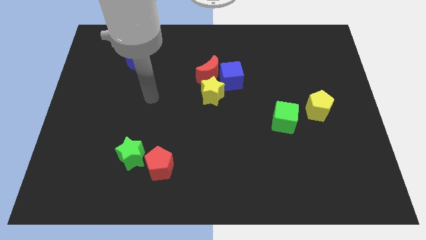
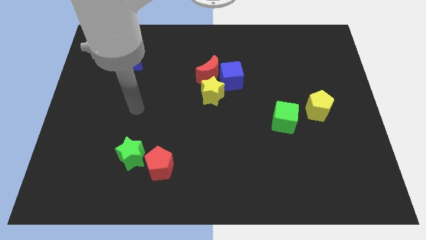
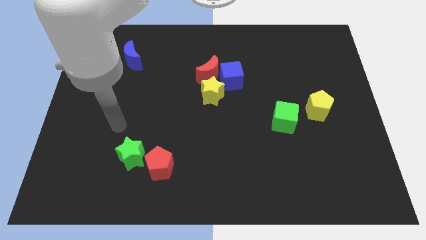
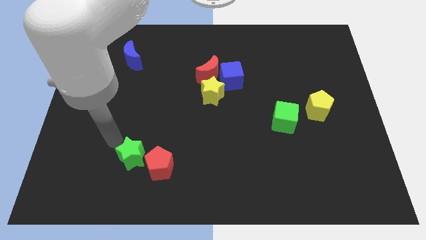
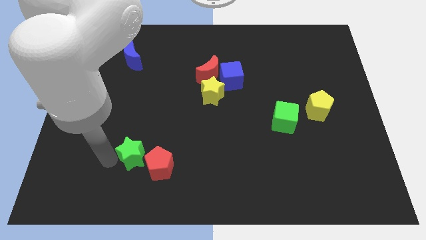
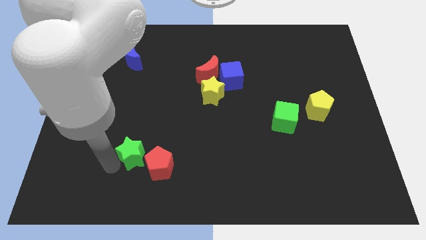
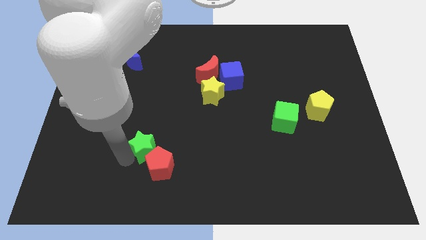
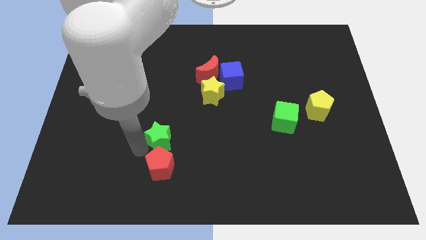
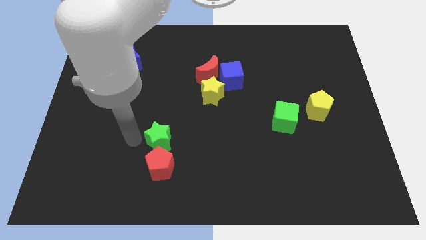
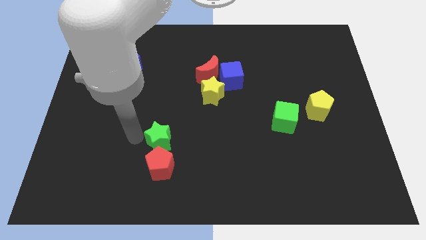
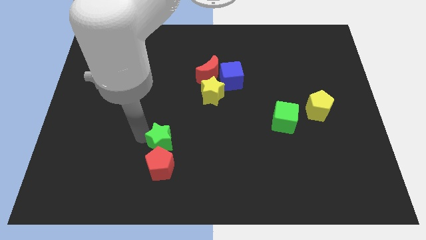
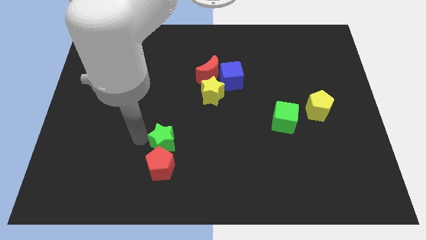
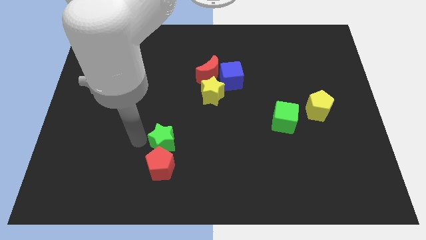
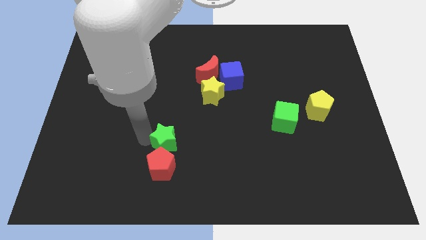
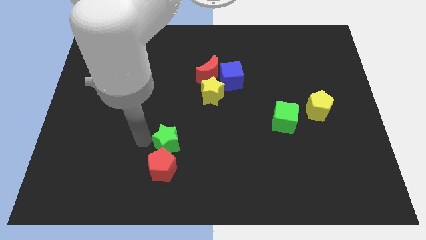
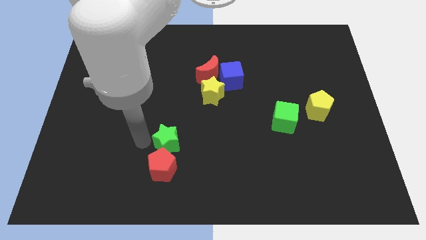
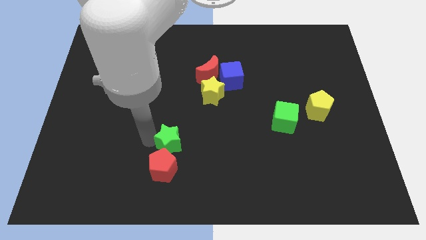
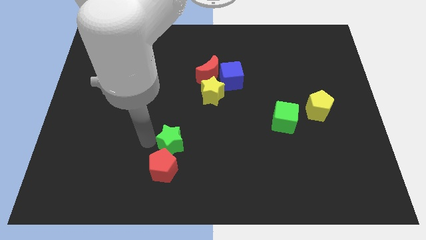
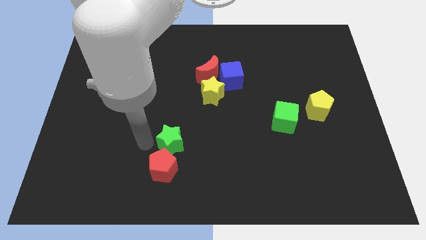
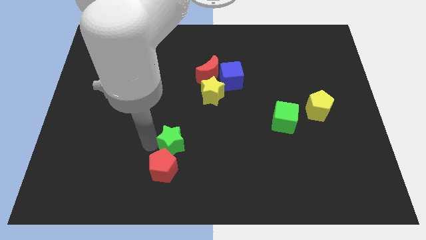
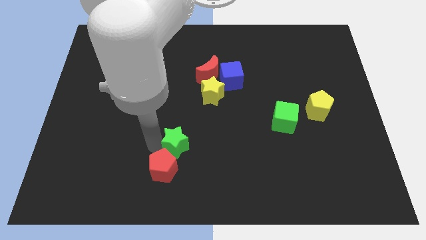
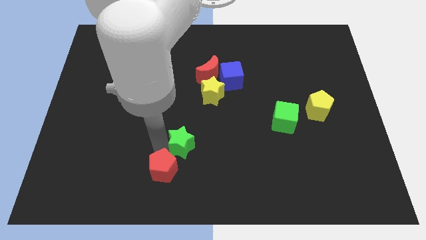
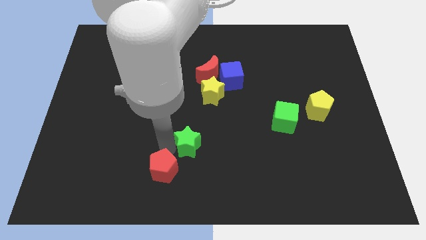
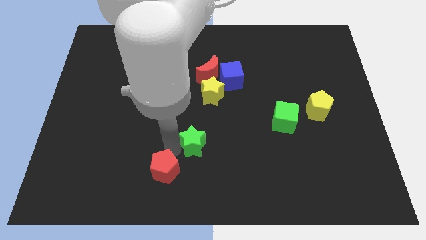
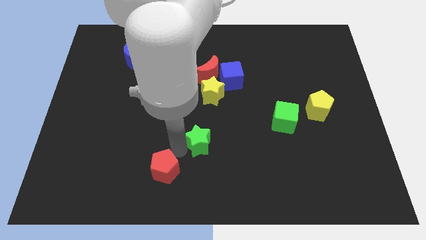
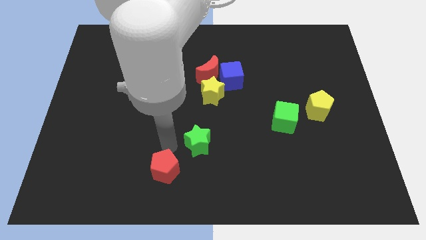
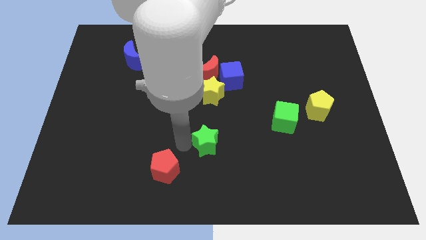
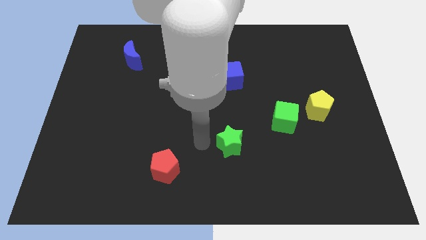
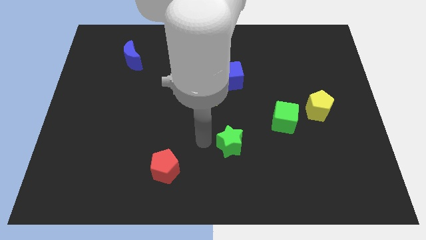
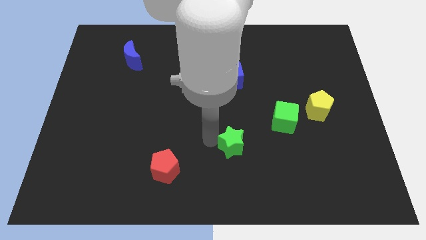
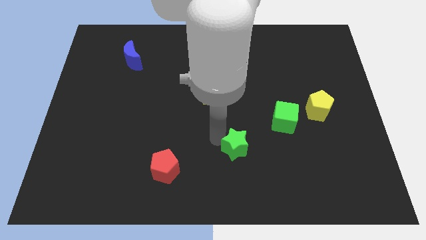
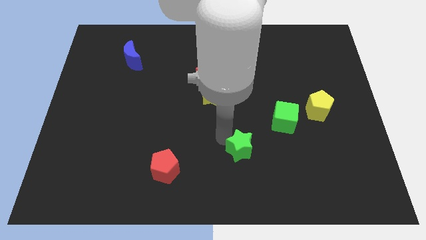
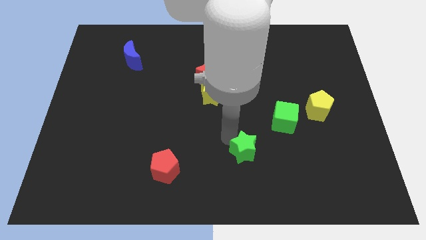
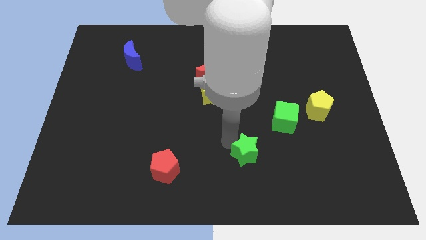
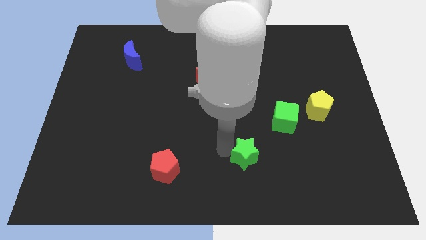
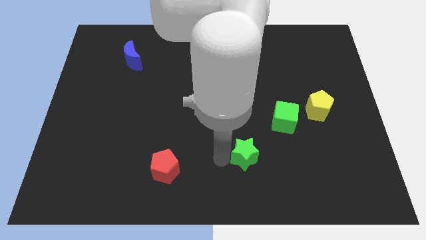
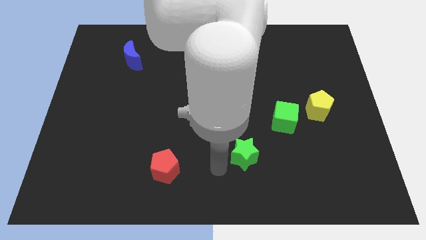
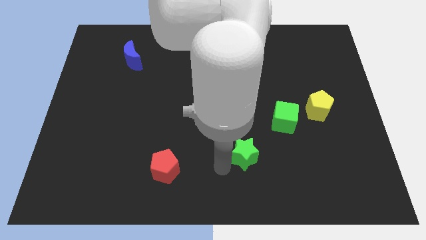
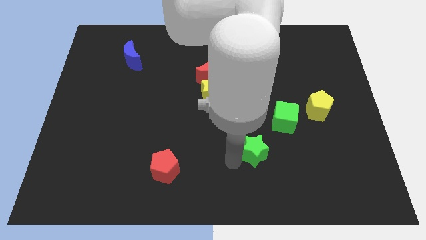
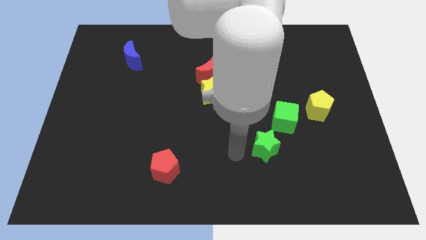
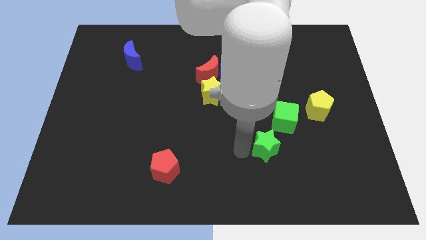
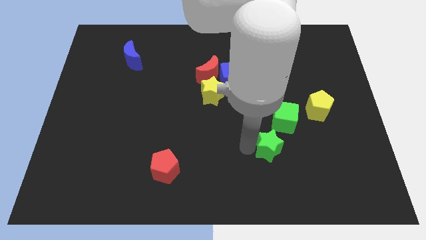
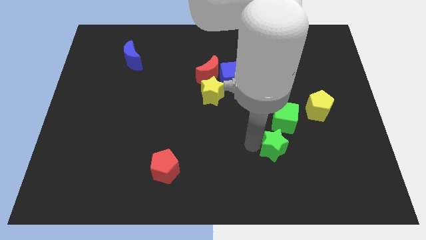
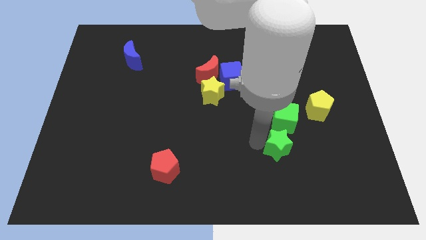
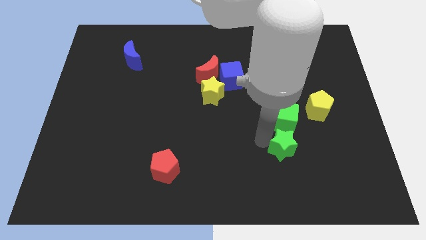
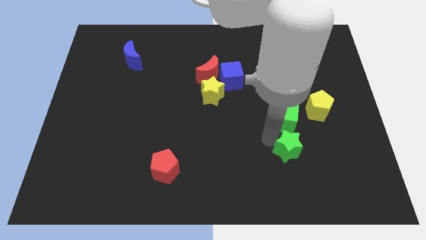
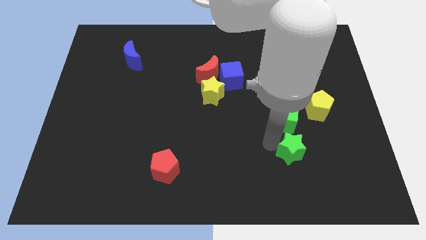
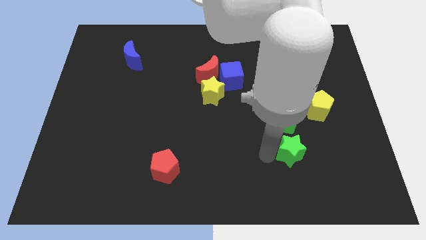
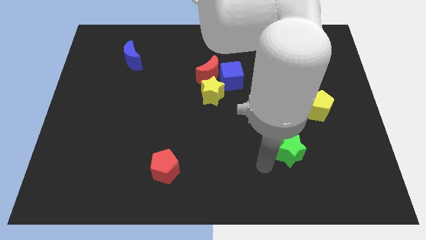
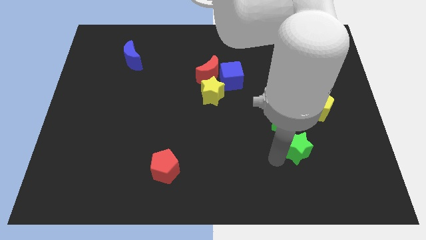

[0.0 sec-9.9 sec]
put the green star diagonally down and to the right of the green cube

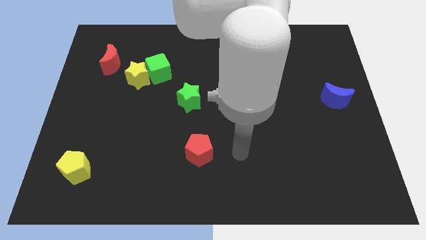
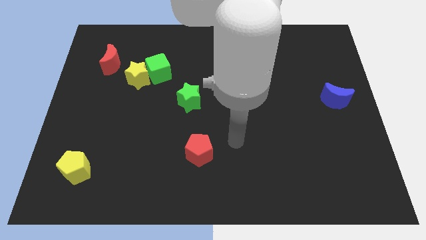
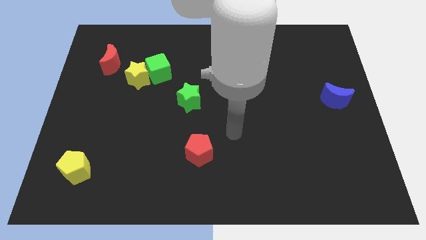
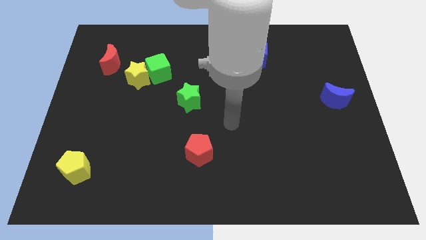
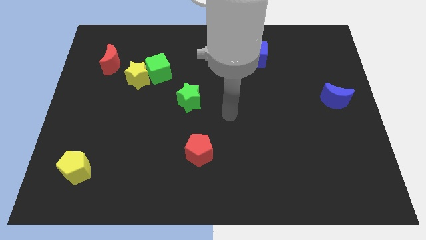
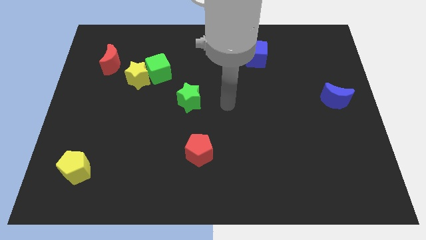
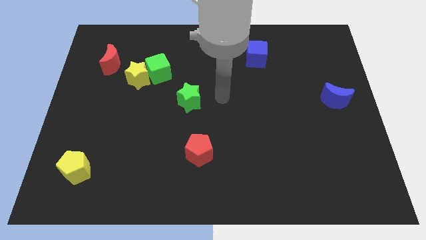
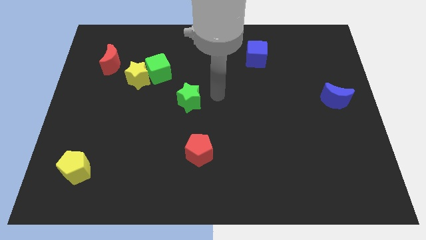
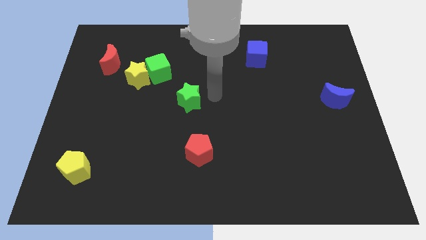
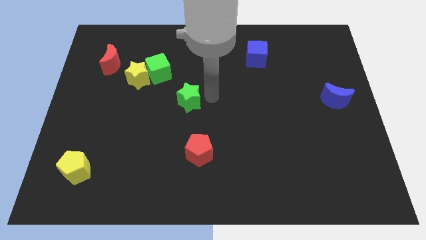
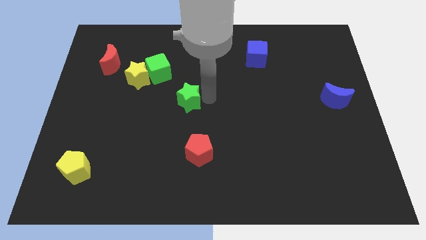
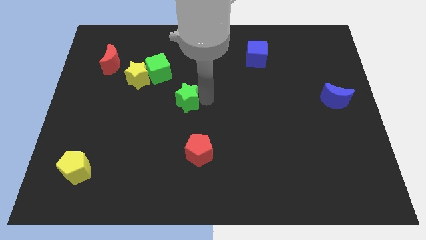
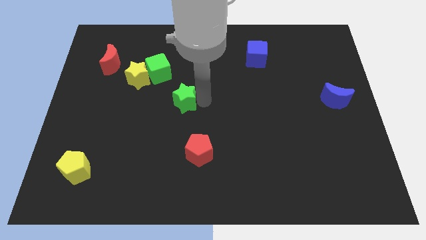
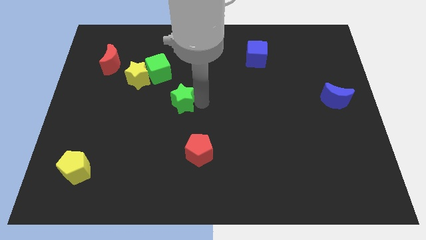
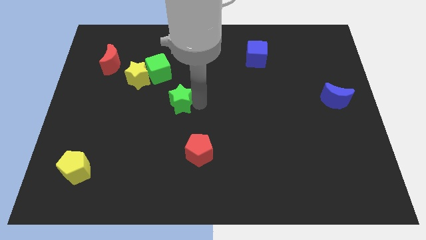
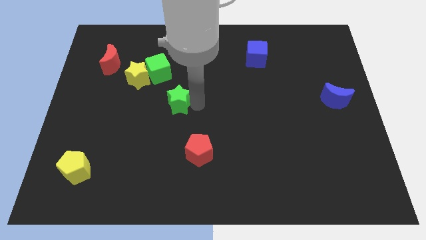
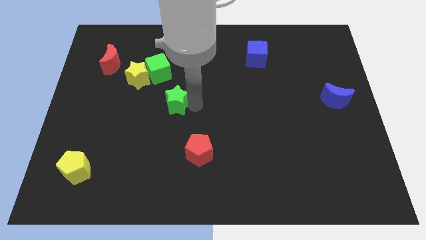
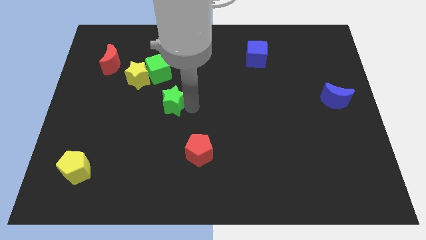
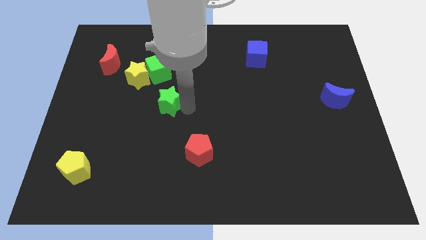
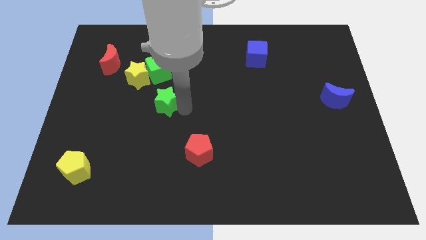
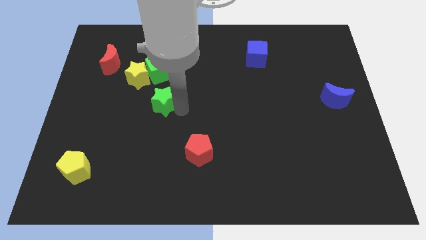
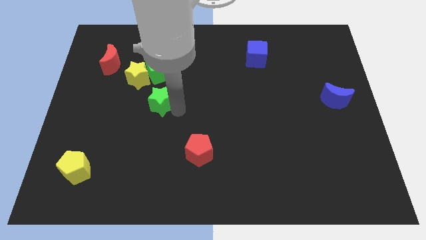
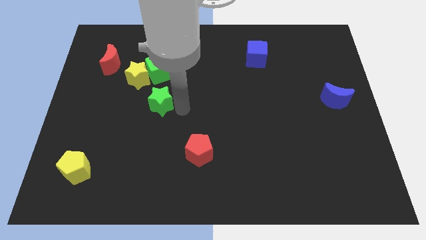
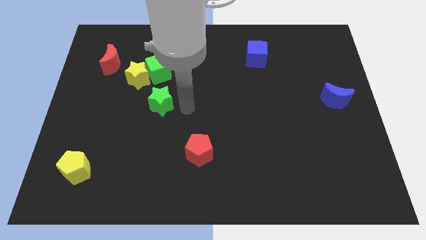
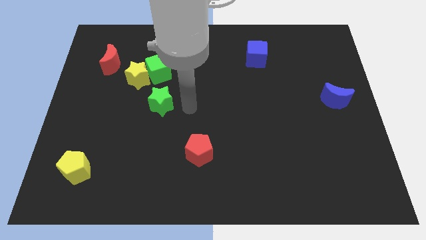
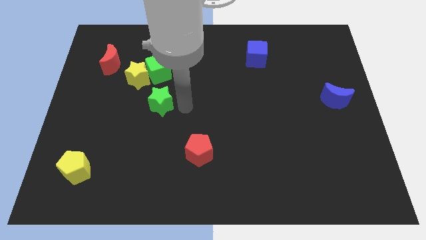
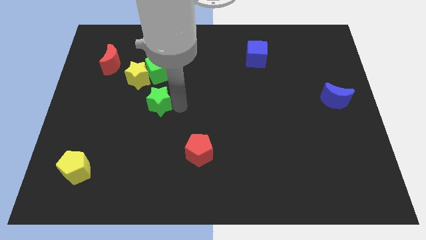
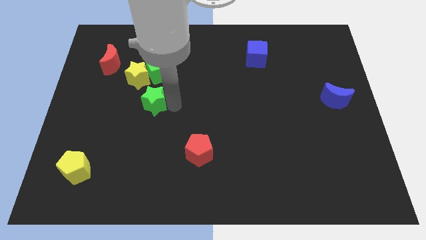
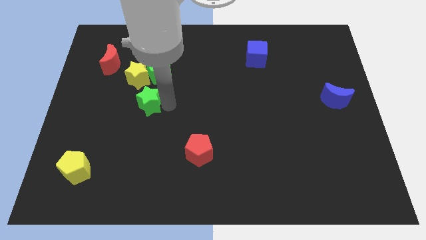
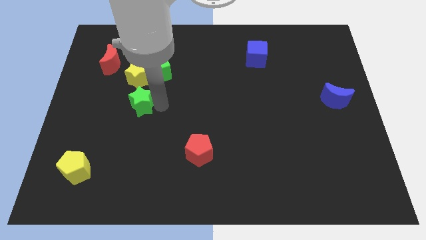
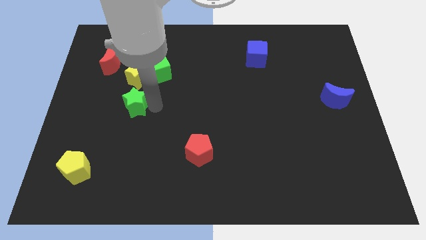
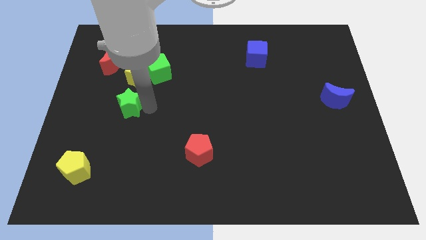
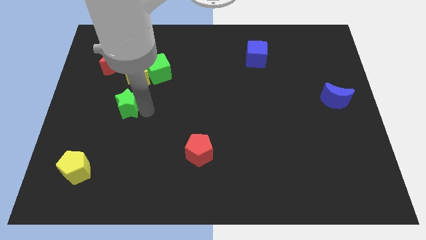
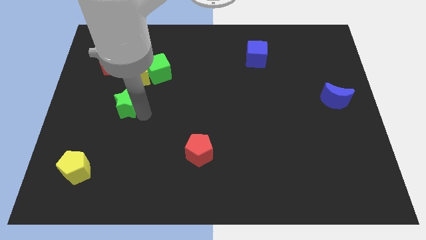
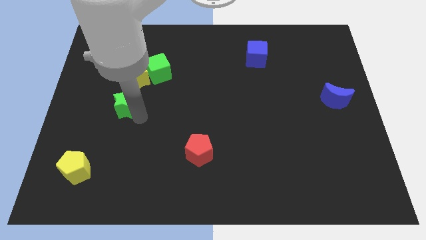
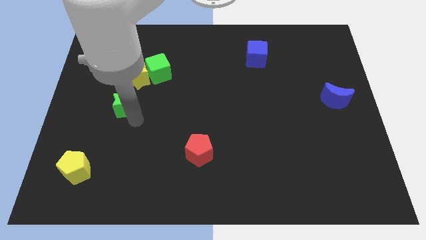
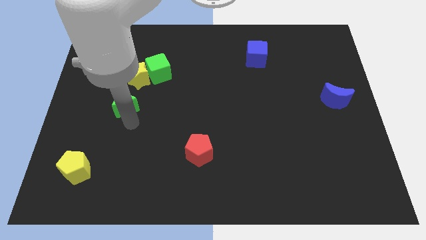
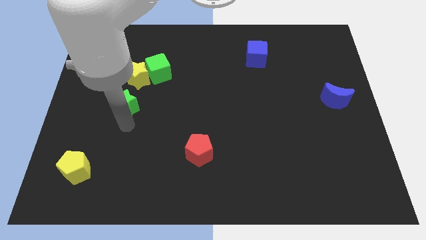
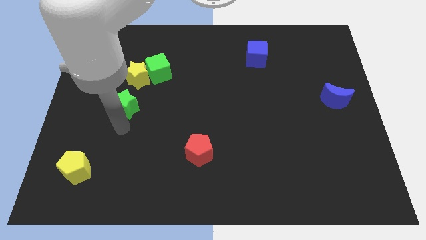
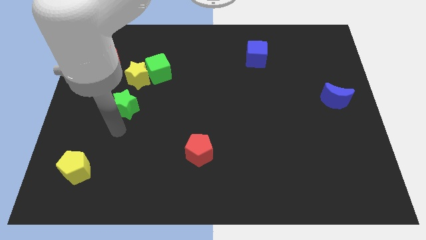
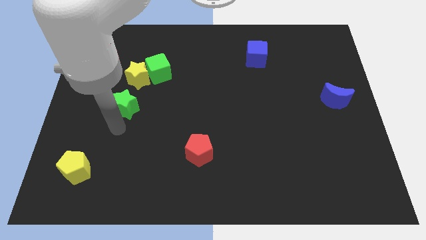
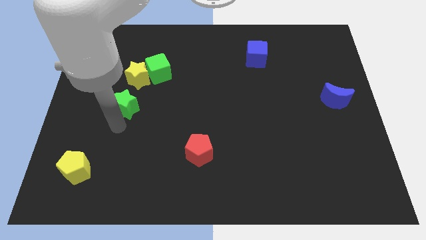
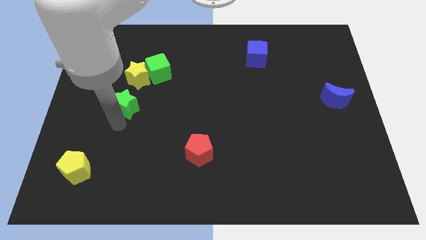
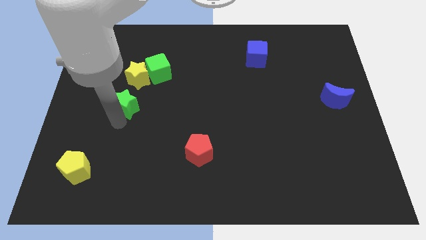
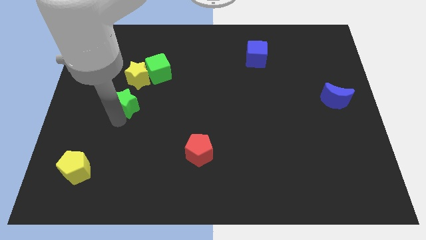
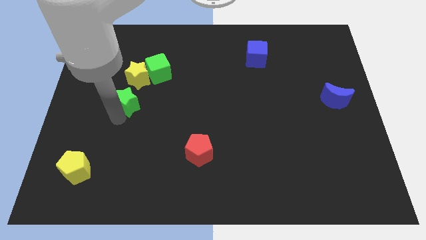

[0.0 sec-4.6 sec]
put the green star to the bottom left of the yellow star
